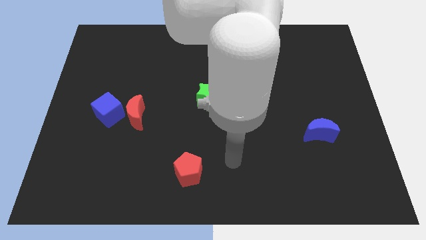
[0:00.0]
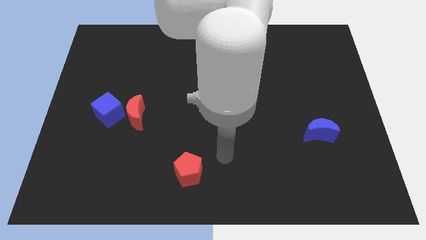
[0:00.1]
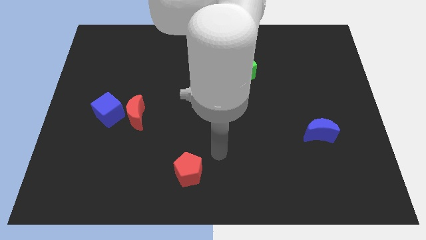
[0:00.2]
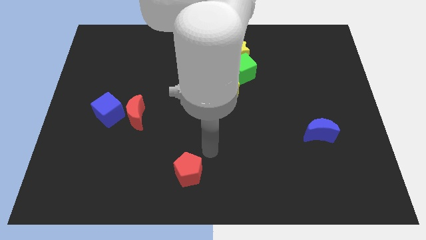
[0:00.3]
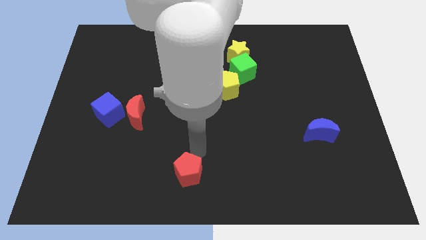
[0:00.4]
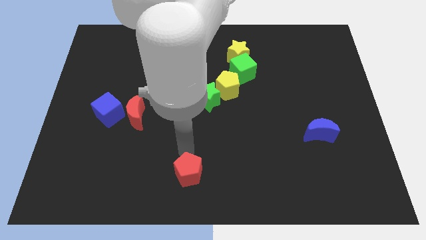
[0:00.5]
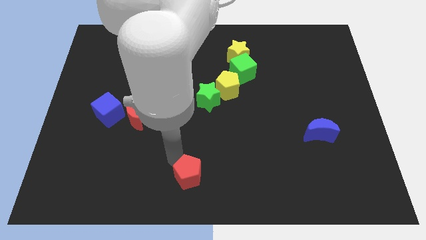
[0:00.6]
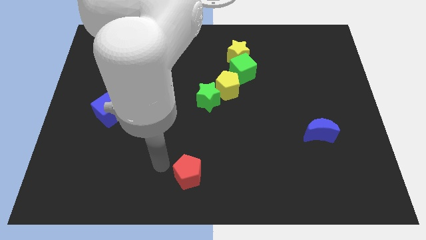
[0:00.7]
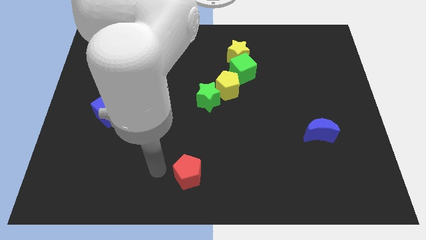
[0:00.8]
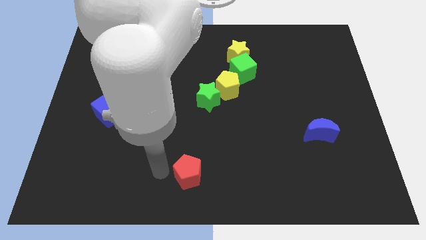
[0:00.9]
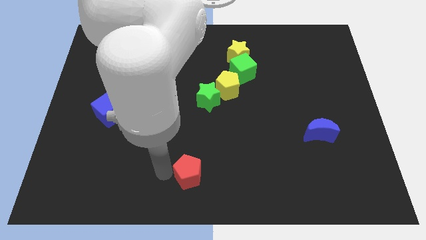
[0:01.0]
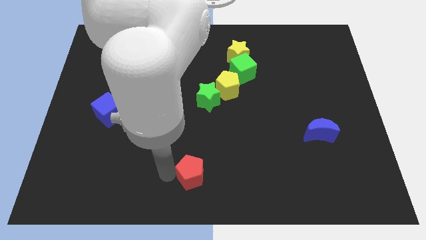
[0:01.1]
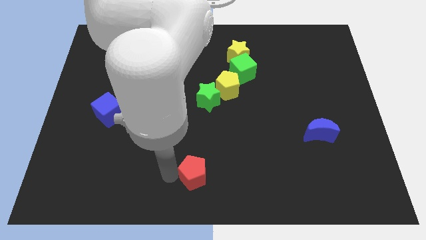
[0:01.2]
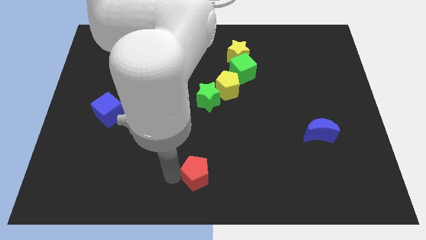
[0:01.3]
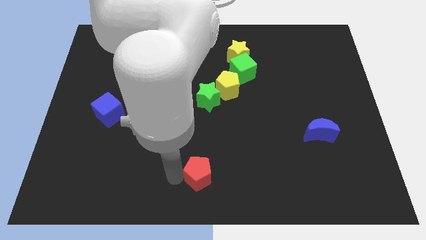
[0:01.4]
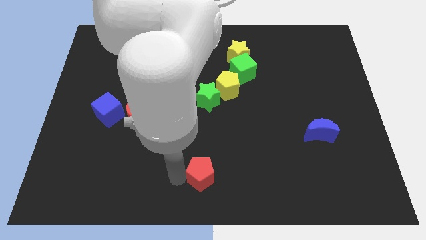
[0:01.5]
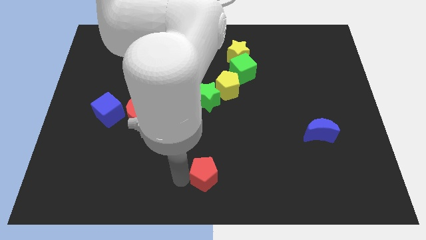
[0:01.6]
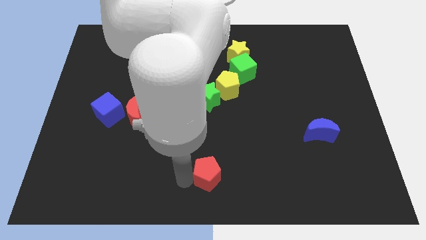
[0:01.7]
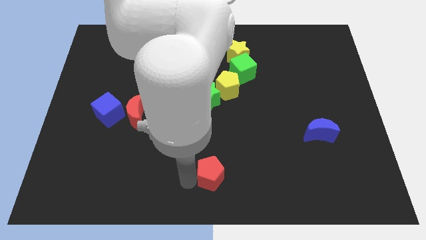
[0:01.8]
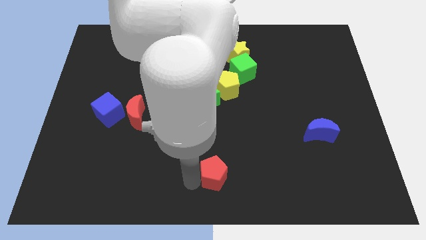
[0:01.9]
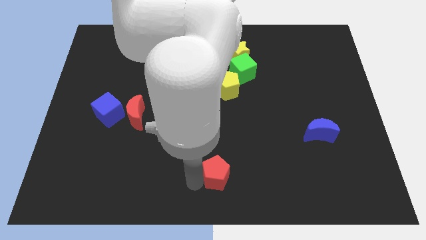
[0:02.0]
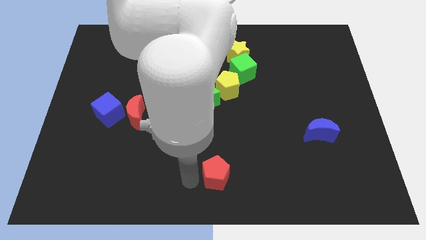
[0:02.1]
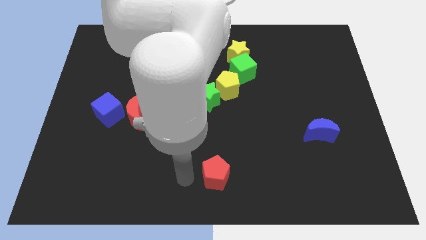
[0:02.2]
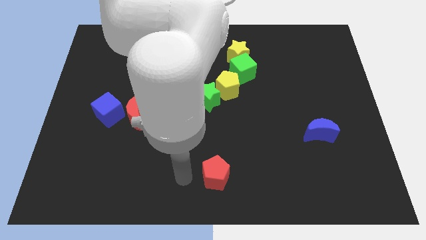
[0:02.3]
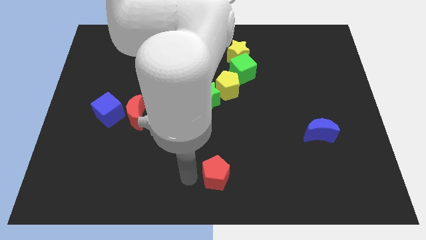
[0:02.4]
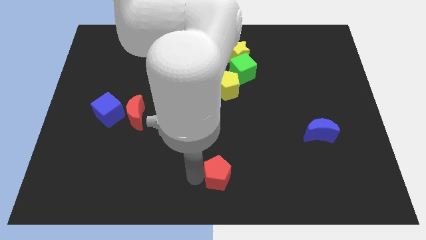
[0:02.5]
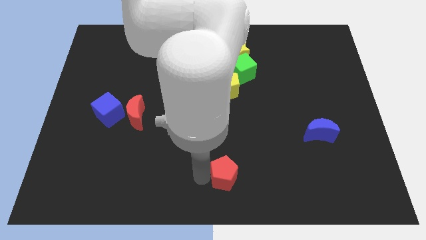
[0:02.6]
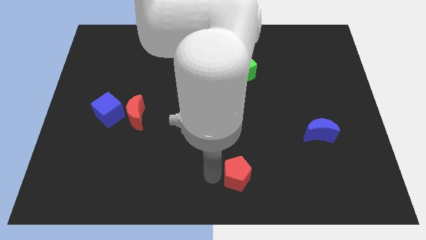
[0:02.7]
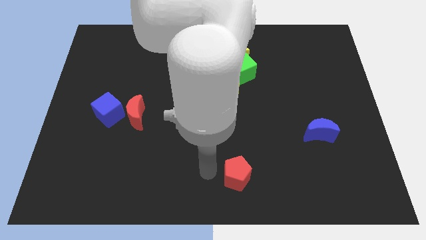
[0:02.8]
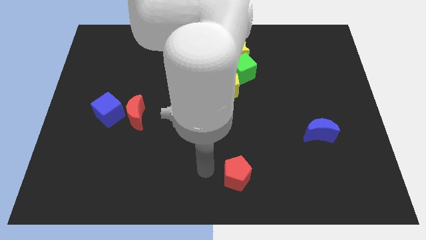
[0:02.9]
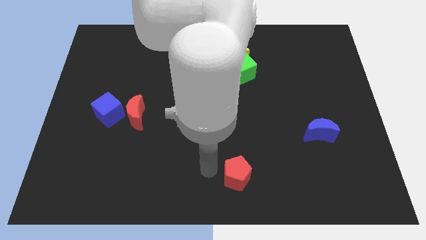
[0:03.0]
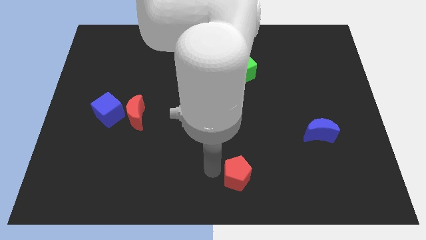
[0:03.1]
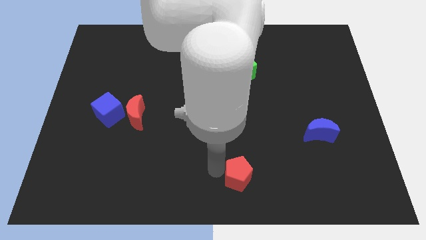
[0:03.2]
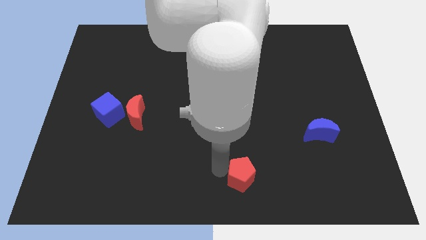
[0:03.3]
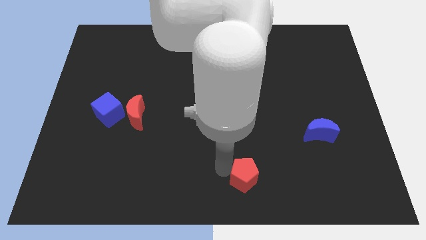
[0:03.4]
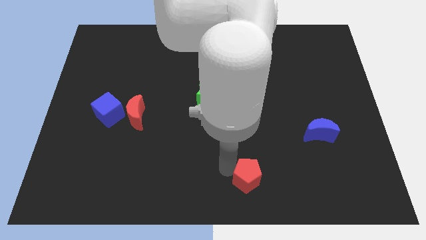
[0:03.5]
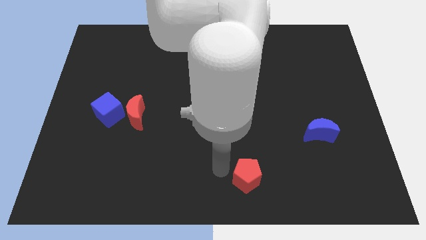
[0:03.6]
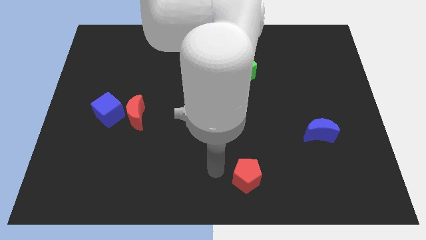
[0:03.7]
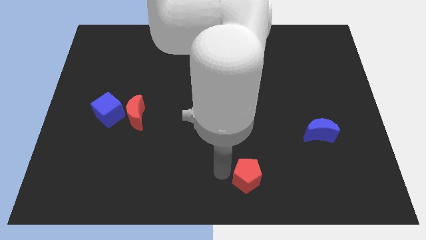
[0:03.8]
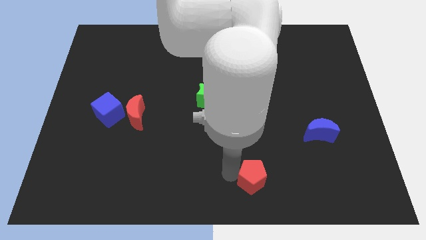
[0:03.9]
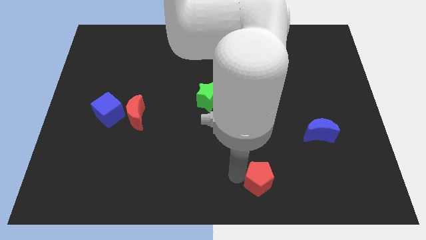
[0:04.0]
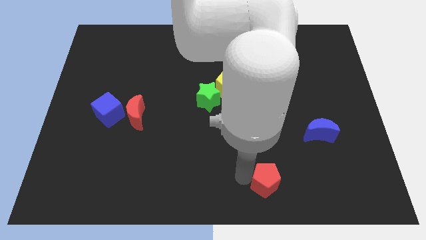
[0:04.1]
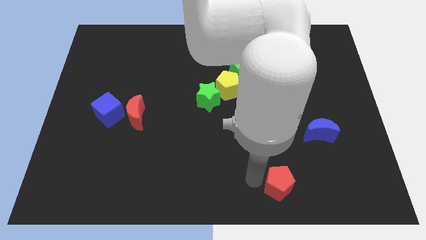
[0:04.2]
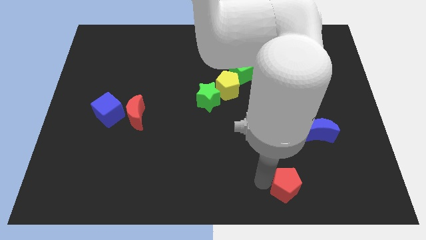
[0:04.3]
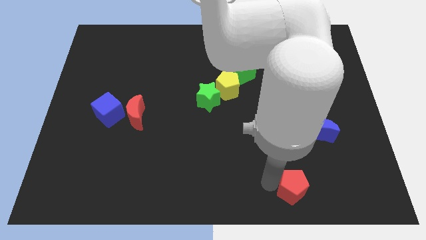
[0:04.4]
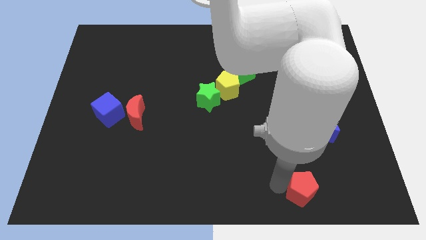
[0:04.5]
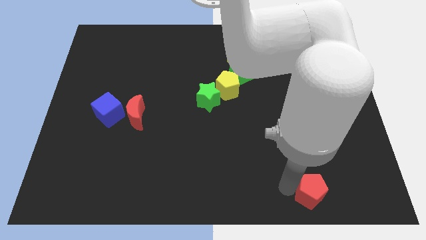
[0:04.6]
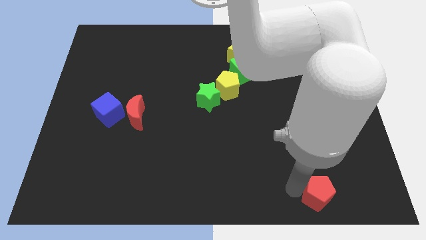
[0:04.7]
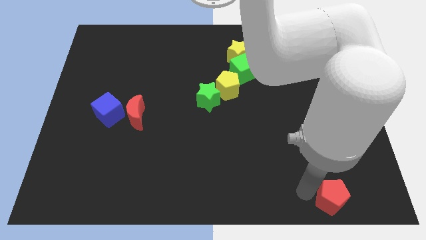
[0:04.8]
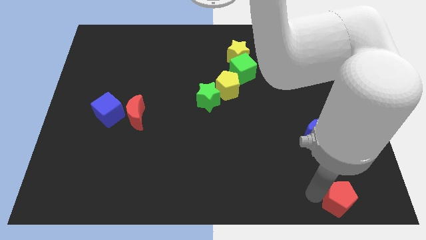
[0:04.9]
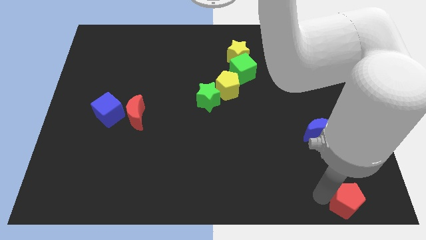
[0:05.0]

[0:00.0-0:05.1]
move the red pentagon to the bottom right corner
